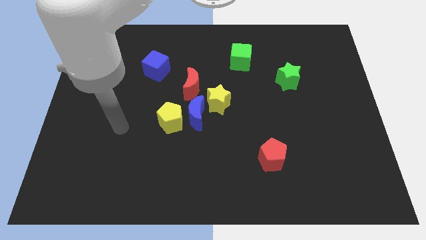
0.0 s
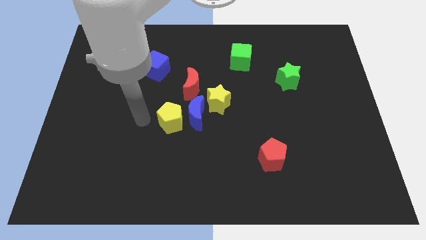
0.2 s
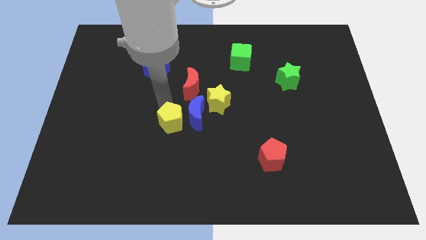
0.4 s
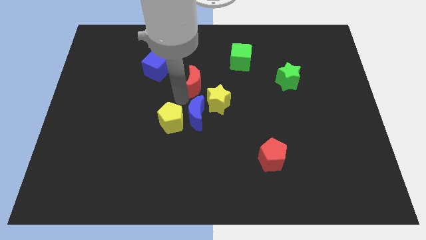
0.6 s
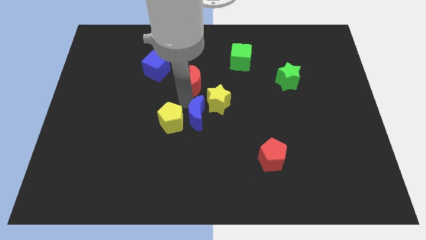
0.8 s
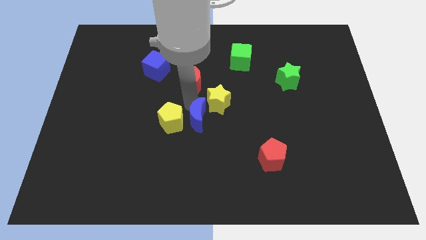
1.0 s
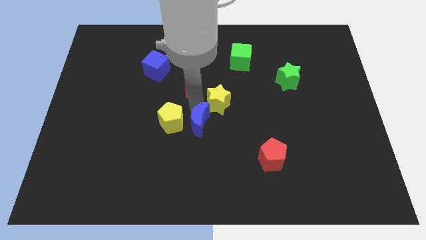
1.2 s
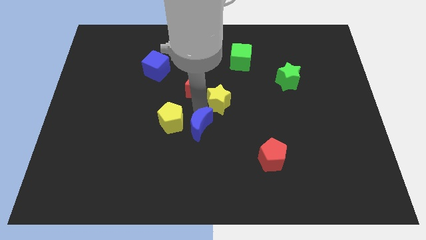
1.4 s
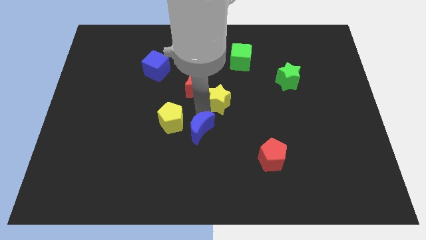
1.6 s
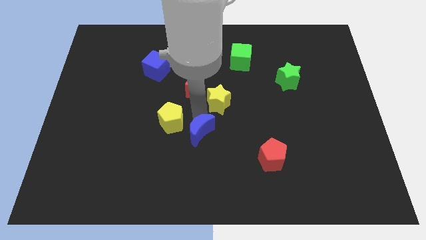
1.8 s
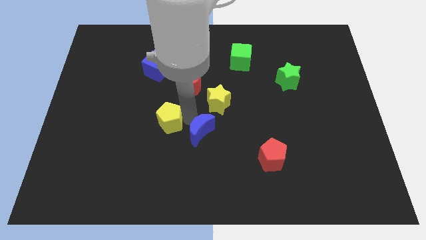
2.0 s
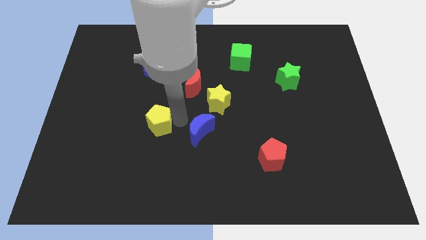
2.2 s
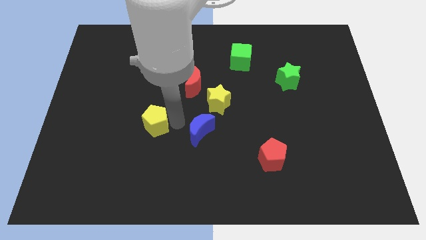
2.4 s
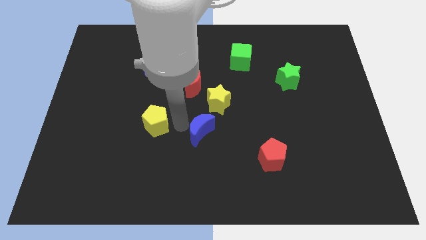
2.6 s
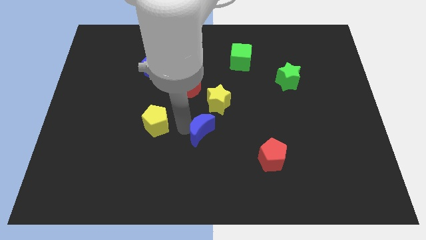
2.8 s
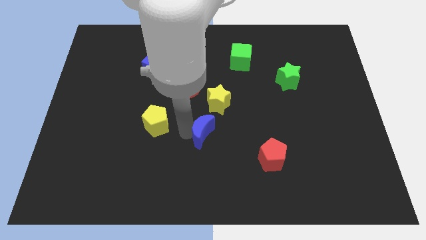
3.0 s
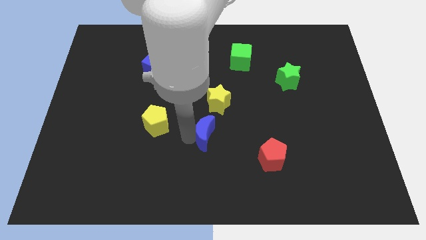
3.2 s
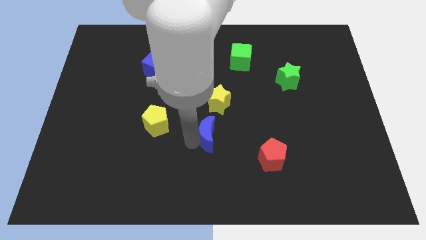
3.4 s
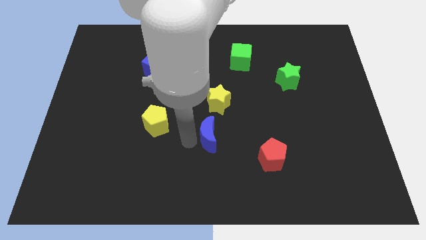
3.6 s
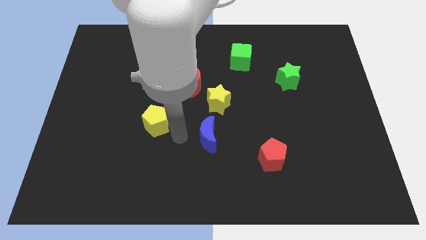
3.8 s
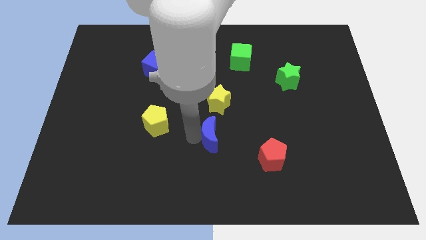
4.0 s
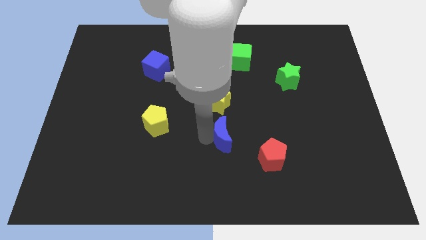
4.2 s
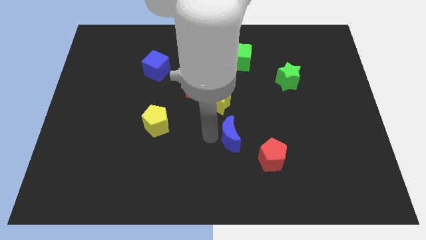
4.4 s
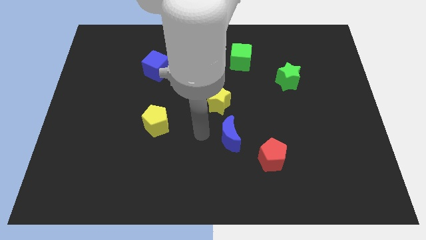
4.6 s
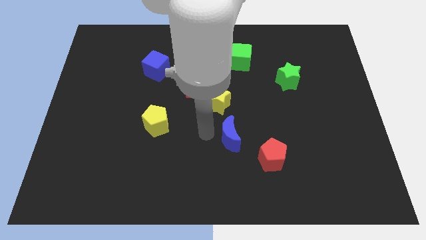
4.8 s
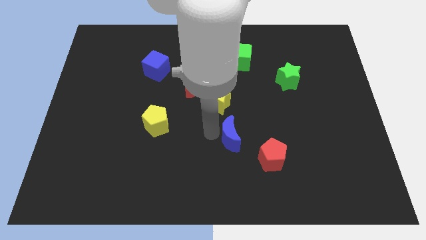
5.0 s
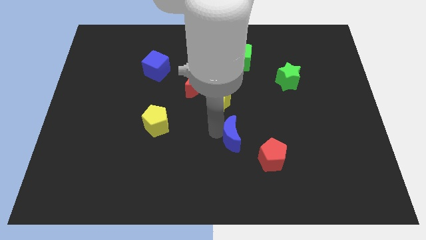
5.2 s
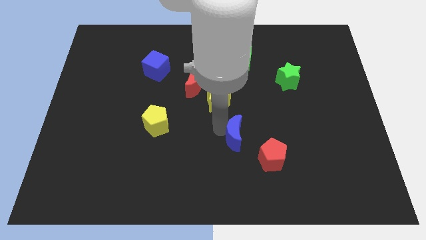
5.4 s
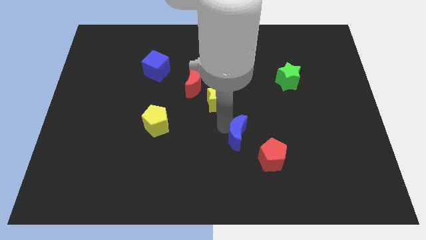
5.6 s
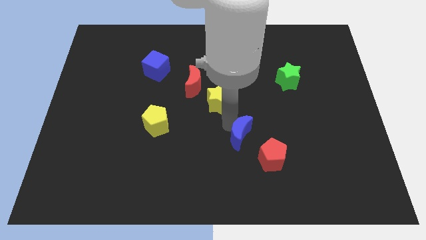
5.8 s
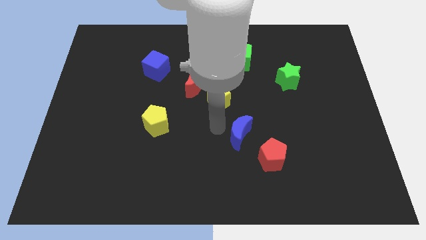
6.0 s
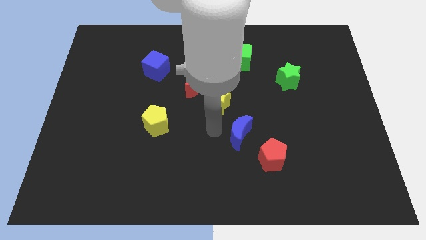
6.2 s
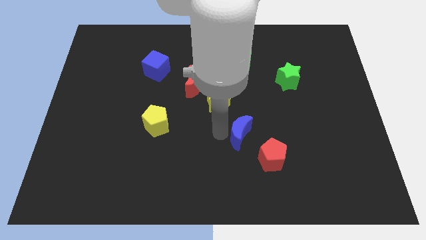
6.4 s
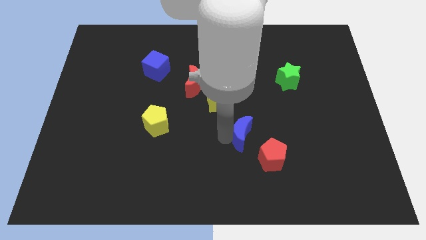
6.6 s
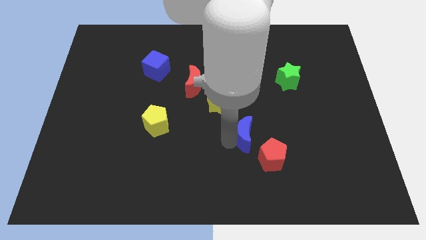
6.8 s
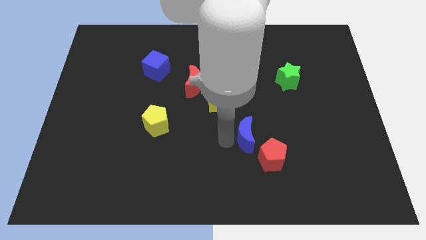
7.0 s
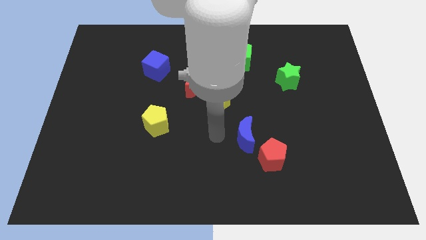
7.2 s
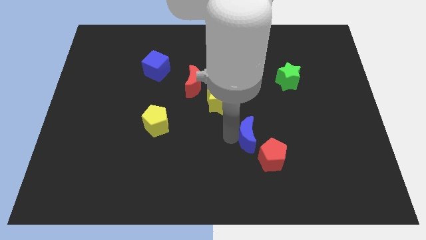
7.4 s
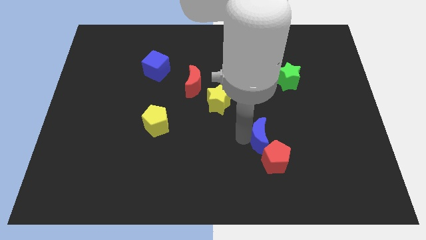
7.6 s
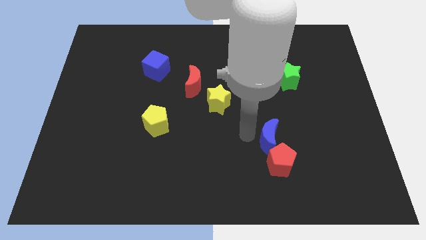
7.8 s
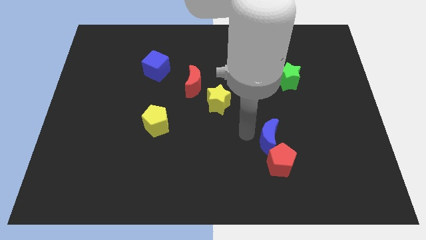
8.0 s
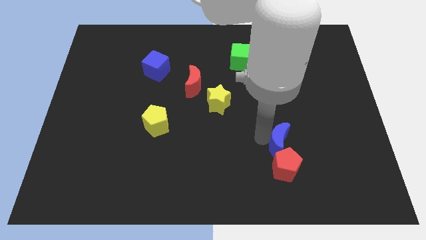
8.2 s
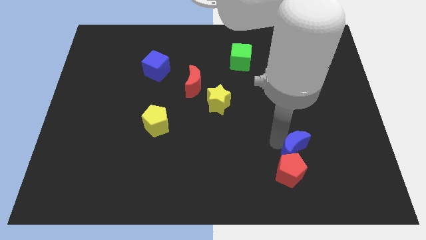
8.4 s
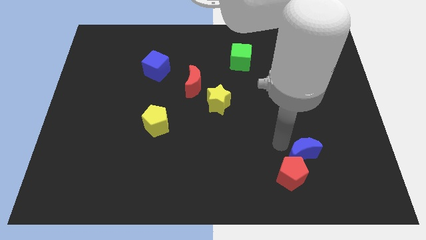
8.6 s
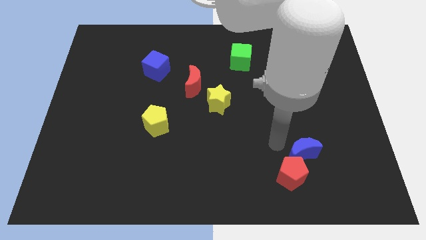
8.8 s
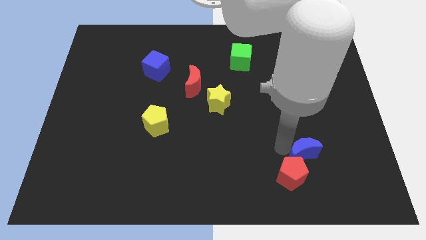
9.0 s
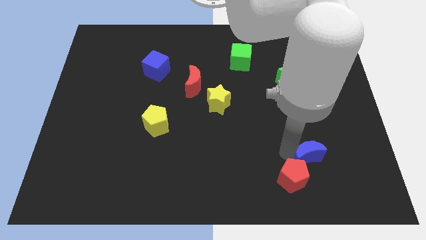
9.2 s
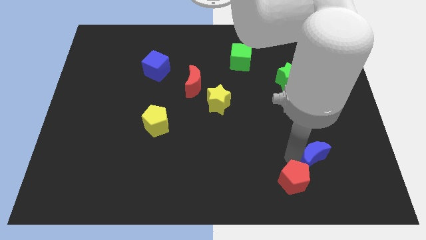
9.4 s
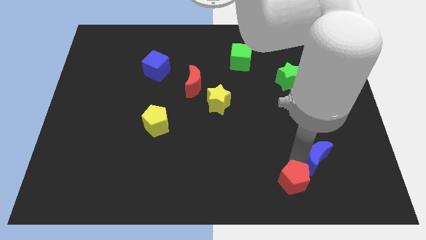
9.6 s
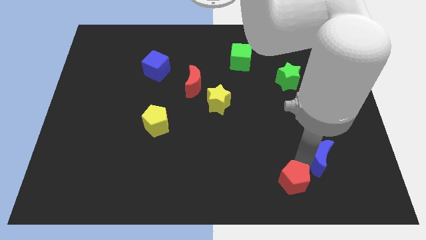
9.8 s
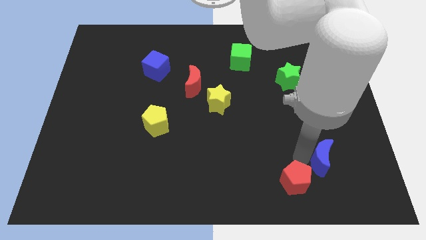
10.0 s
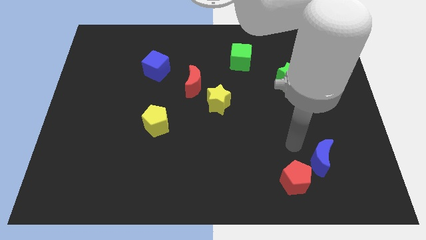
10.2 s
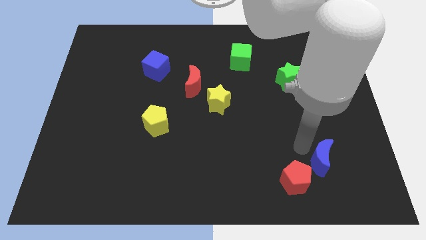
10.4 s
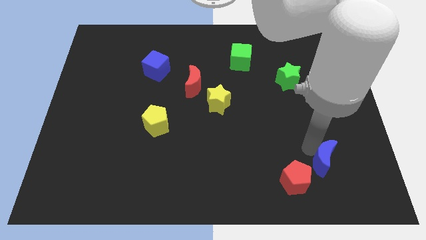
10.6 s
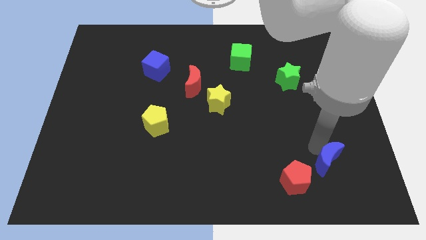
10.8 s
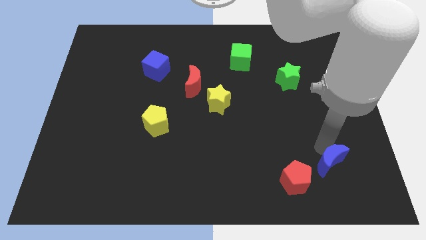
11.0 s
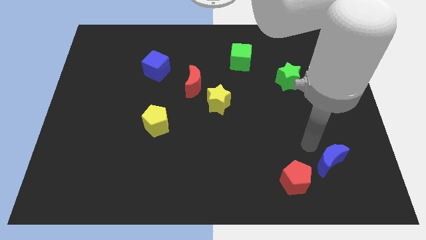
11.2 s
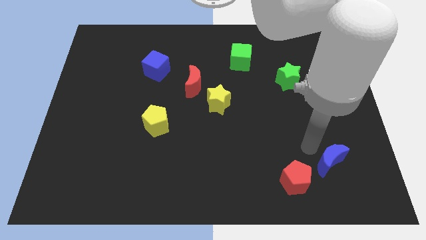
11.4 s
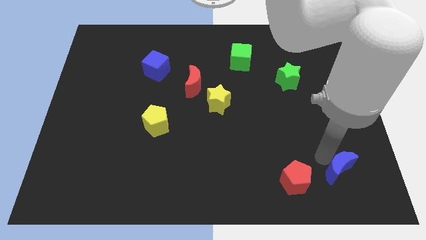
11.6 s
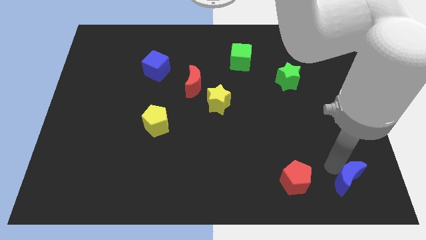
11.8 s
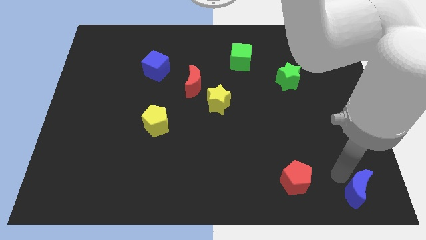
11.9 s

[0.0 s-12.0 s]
slide the blue moon to the bottom right

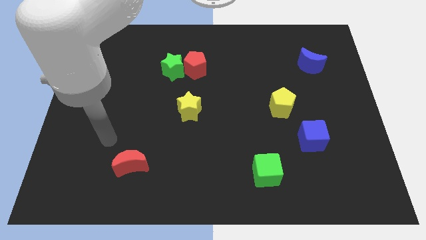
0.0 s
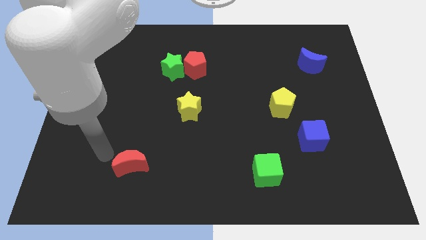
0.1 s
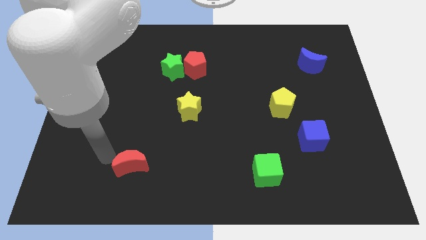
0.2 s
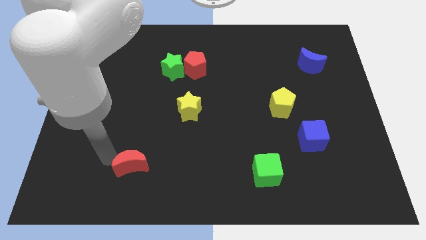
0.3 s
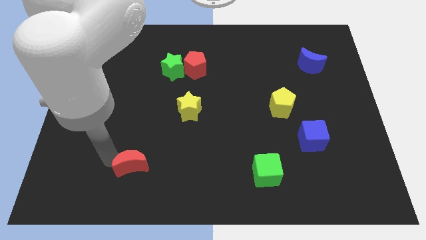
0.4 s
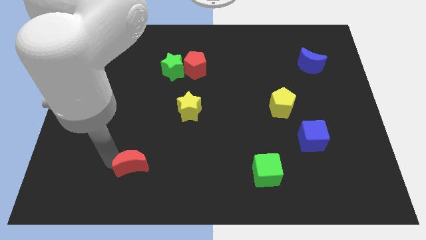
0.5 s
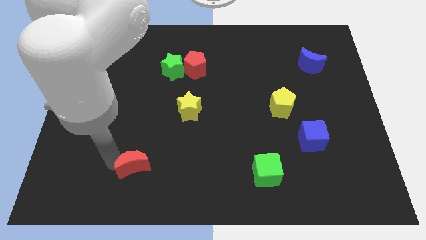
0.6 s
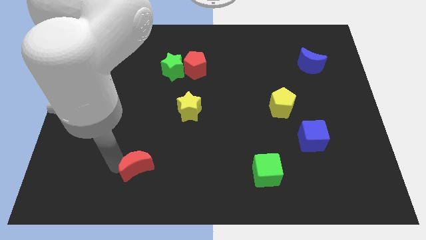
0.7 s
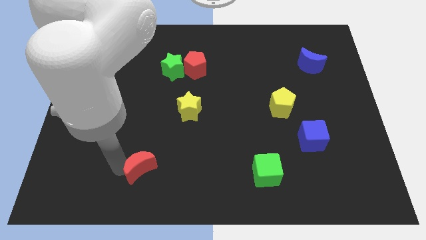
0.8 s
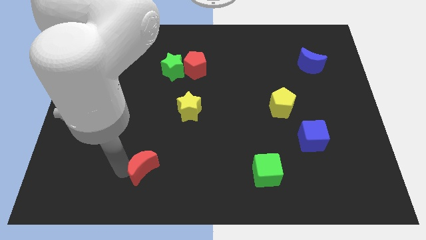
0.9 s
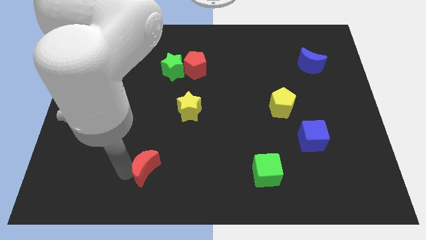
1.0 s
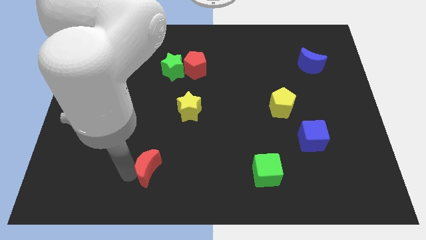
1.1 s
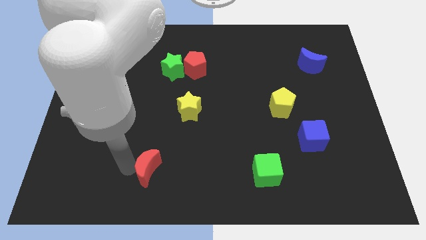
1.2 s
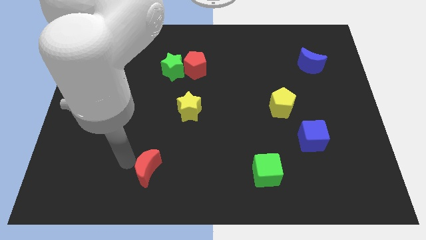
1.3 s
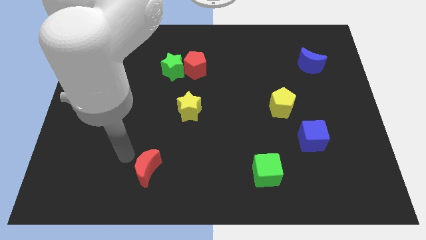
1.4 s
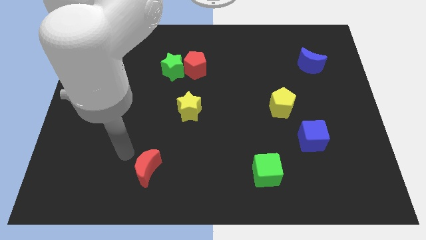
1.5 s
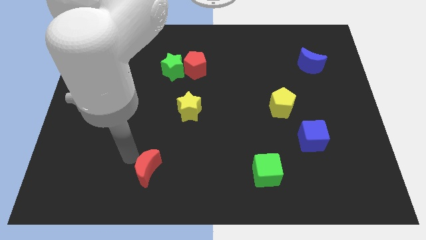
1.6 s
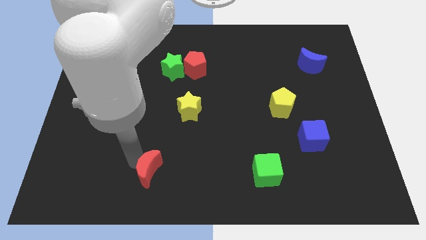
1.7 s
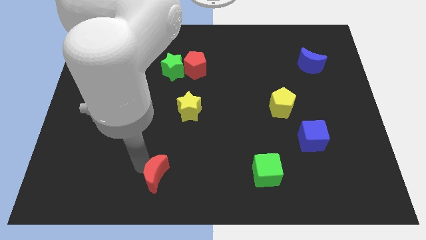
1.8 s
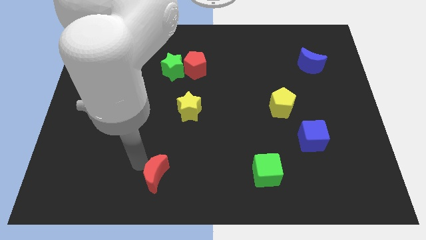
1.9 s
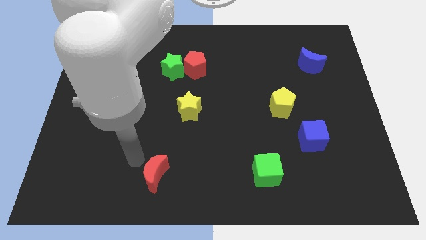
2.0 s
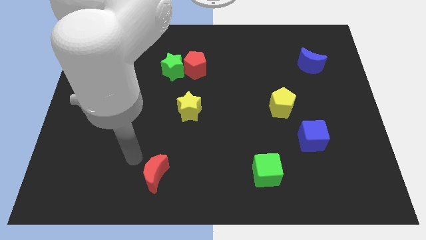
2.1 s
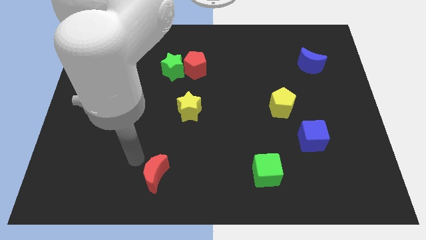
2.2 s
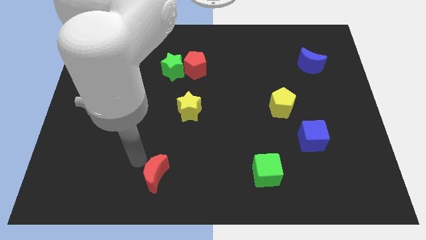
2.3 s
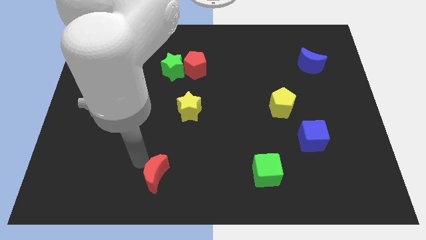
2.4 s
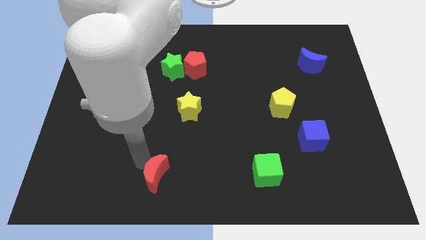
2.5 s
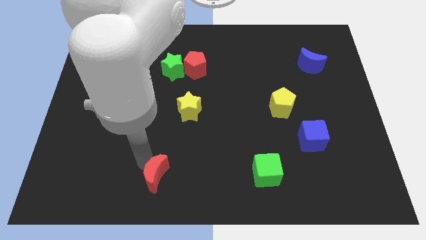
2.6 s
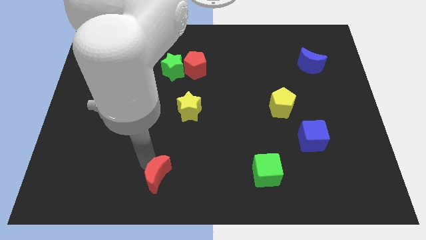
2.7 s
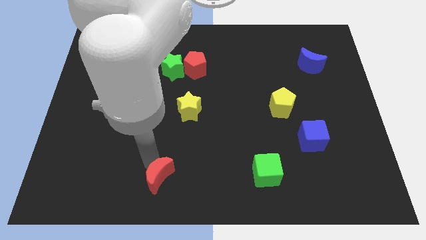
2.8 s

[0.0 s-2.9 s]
push the red moon to the bottom side
